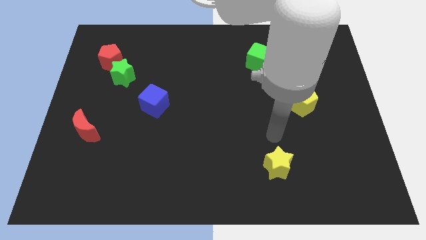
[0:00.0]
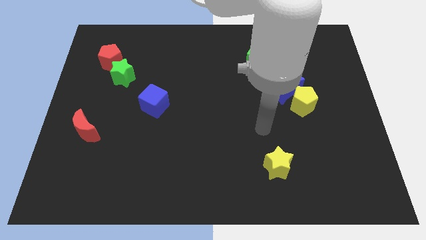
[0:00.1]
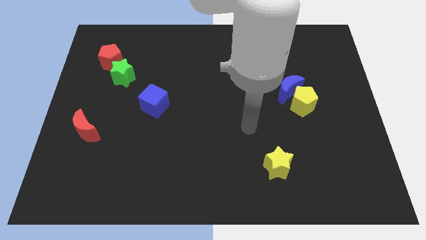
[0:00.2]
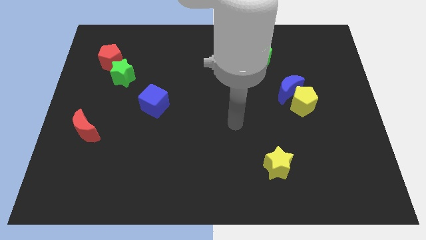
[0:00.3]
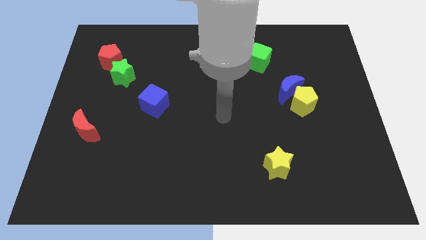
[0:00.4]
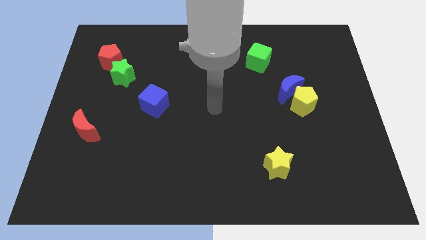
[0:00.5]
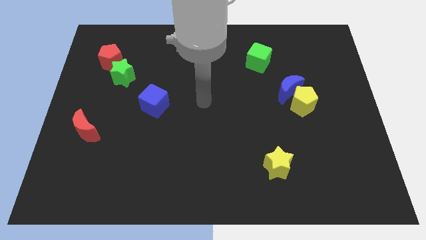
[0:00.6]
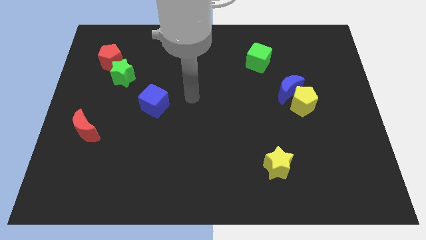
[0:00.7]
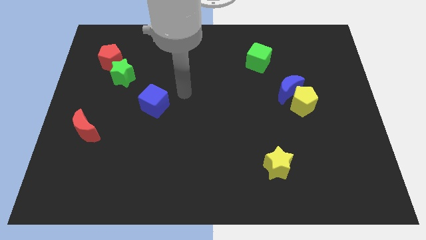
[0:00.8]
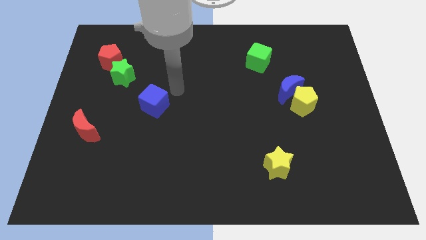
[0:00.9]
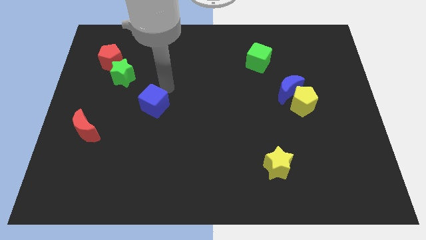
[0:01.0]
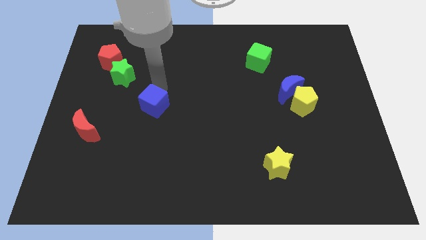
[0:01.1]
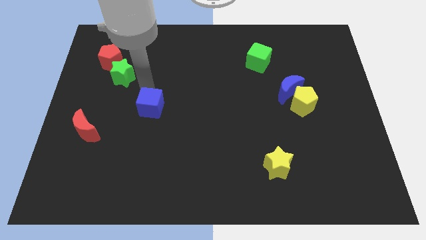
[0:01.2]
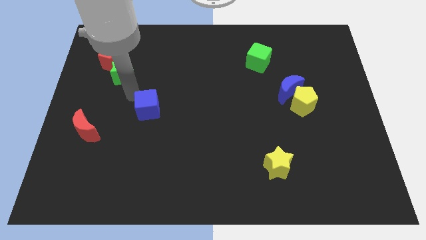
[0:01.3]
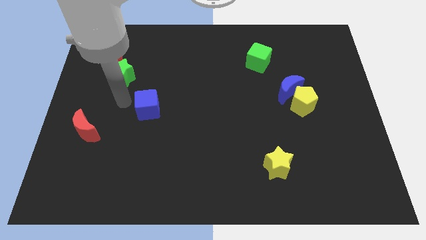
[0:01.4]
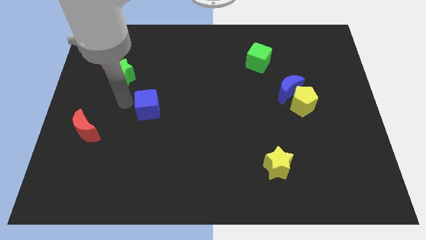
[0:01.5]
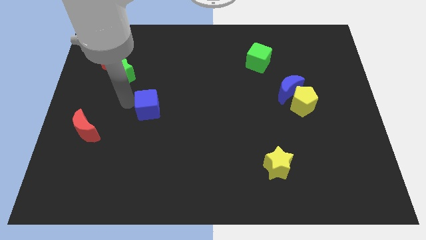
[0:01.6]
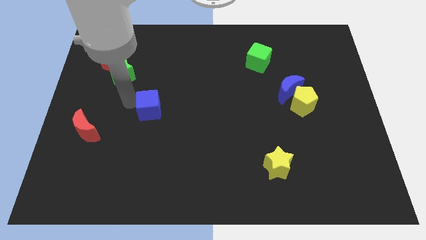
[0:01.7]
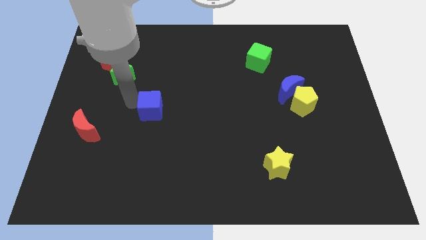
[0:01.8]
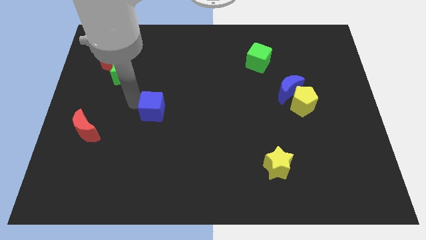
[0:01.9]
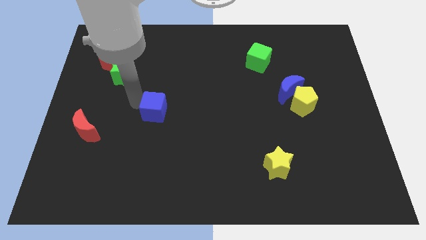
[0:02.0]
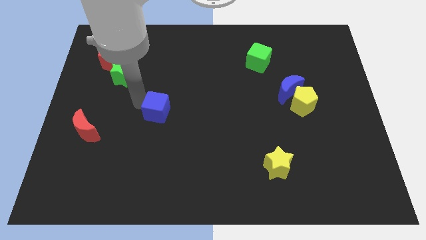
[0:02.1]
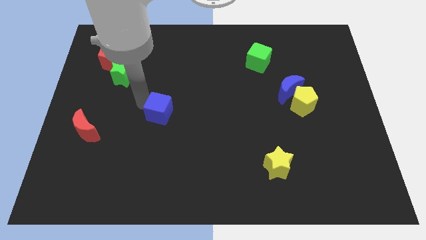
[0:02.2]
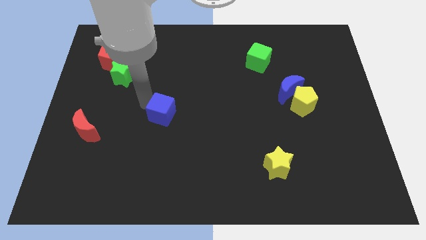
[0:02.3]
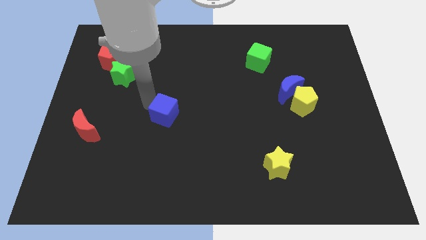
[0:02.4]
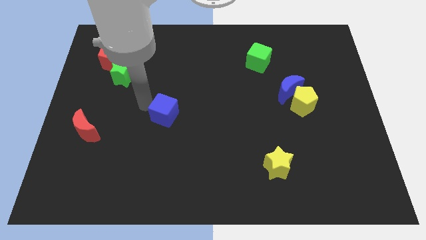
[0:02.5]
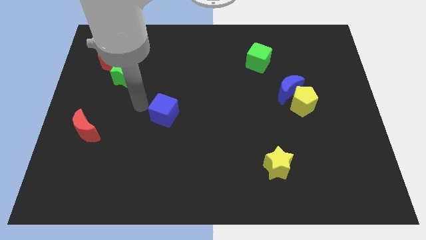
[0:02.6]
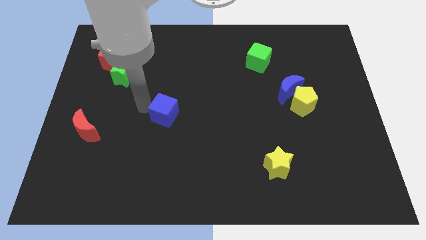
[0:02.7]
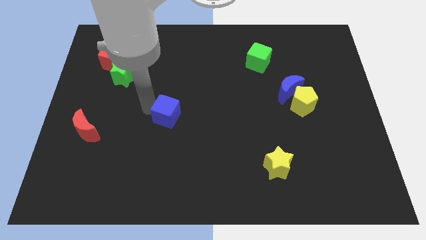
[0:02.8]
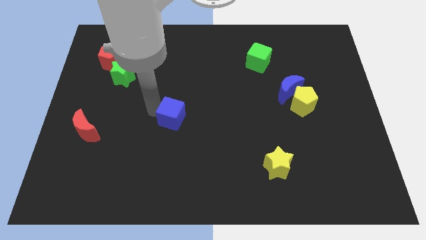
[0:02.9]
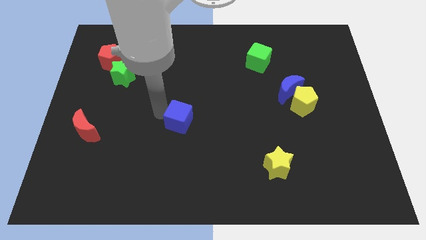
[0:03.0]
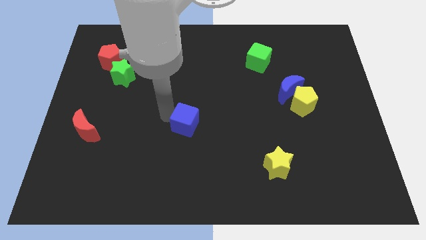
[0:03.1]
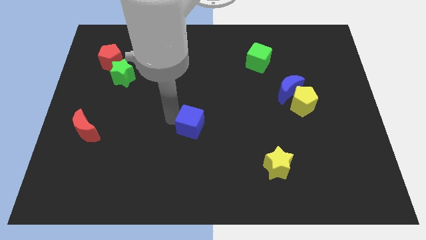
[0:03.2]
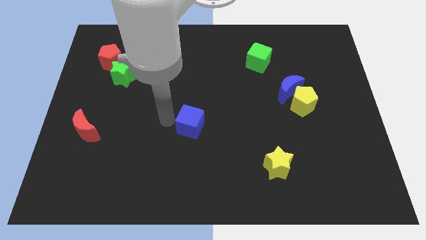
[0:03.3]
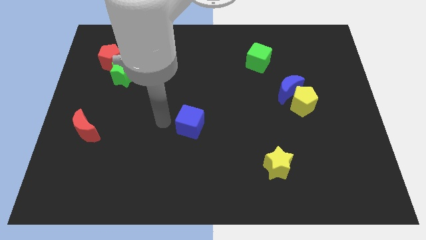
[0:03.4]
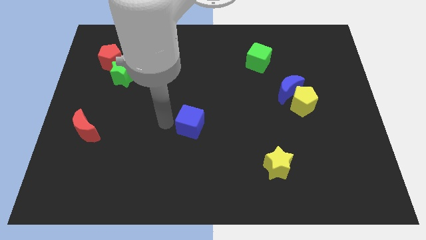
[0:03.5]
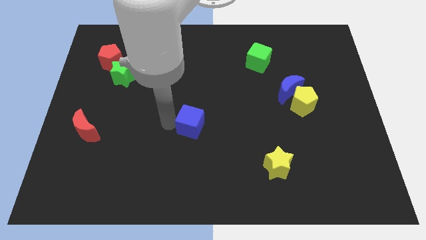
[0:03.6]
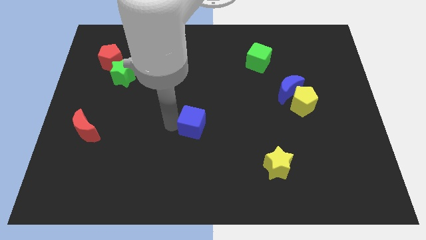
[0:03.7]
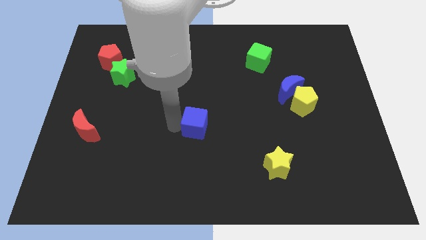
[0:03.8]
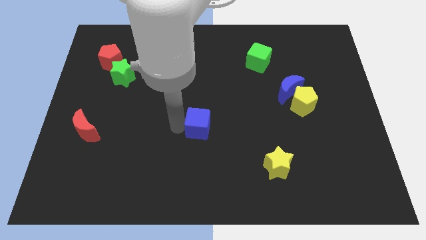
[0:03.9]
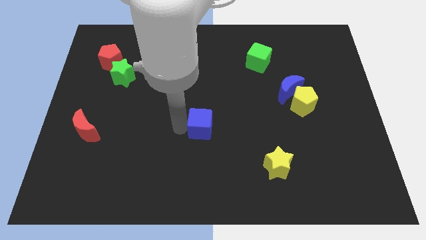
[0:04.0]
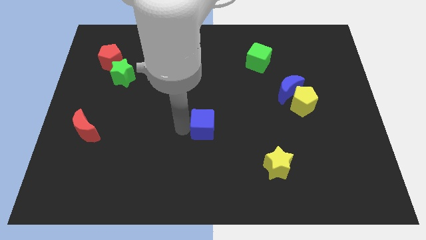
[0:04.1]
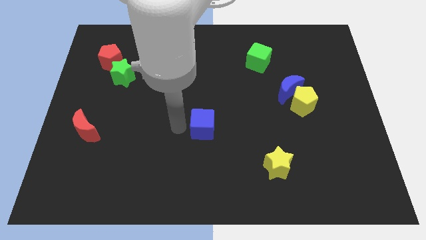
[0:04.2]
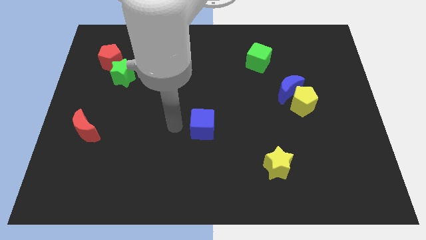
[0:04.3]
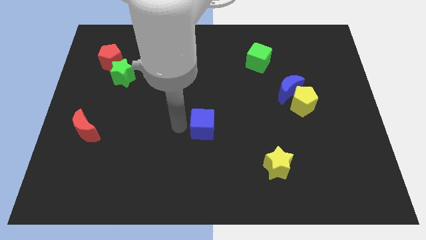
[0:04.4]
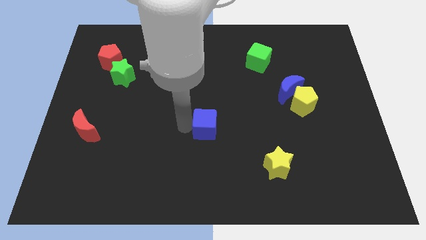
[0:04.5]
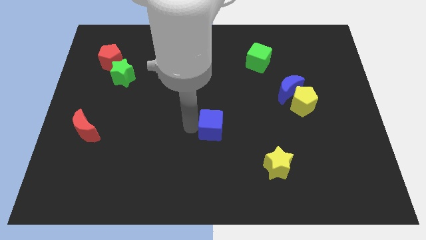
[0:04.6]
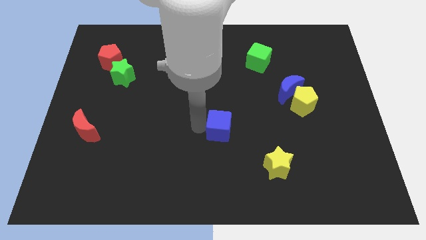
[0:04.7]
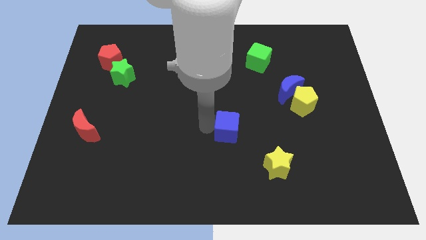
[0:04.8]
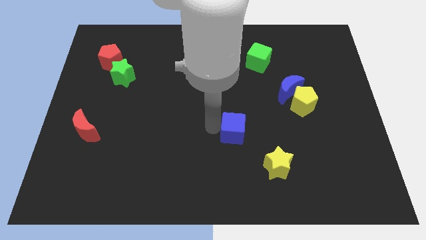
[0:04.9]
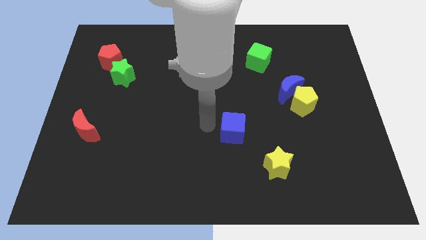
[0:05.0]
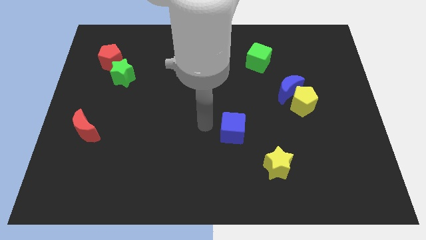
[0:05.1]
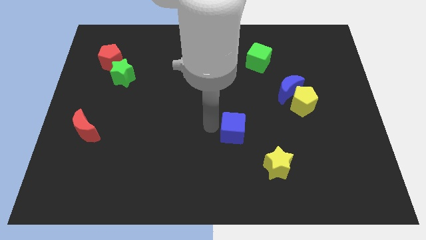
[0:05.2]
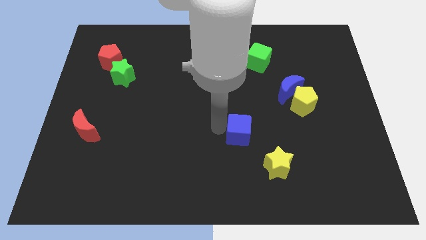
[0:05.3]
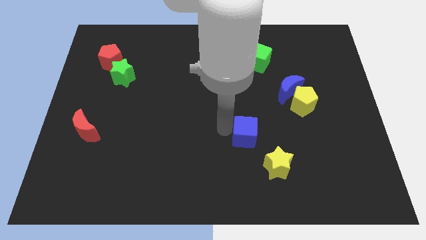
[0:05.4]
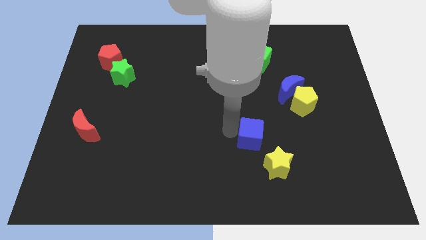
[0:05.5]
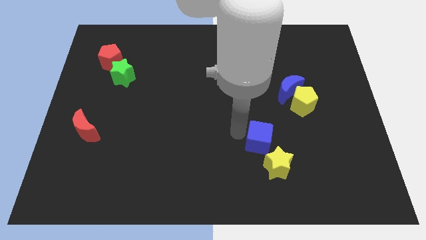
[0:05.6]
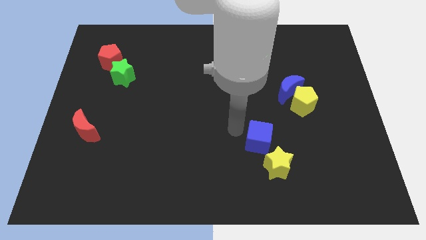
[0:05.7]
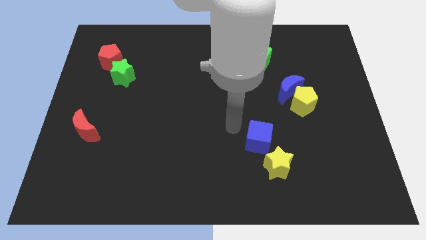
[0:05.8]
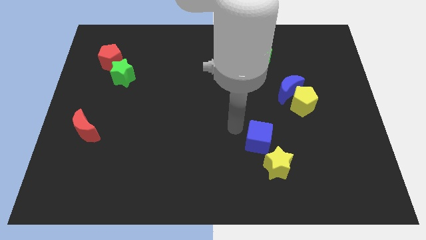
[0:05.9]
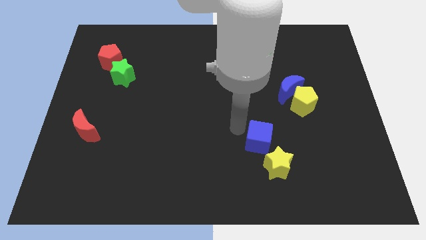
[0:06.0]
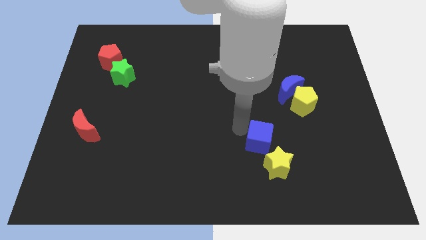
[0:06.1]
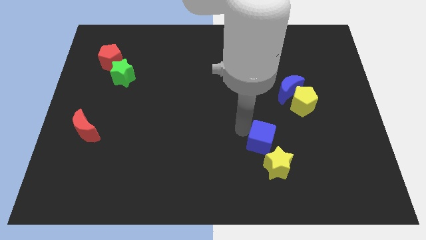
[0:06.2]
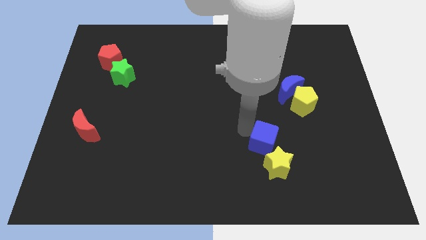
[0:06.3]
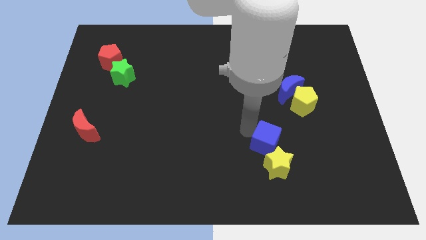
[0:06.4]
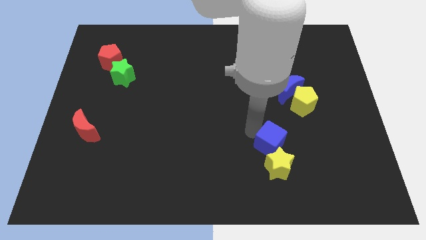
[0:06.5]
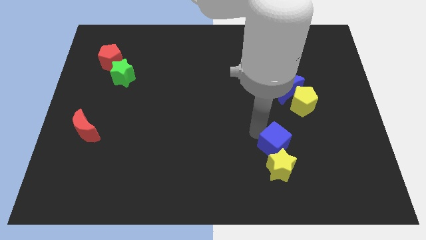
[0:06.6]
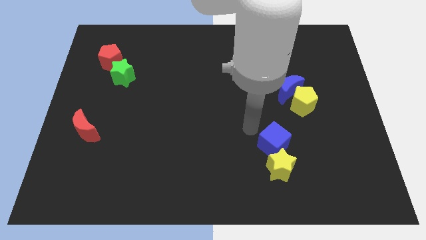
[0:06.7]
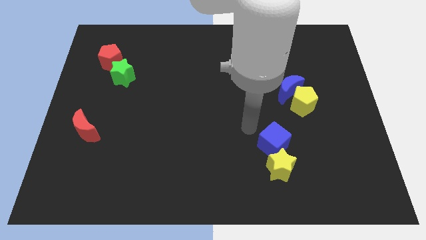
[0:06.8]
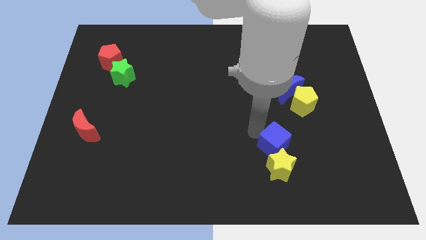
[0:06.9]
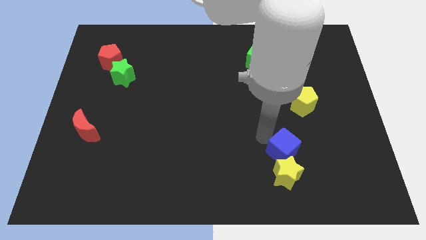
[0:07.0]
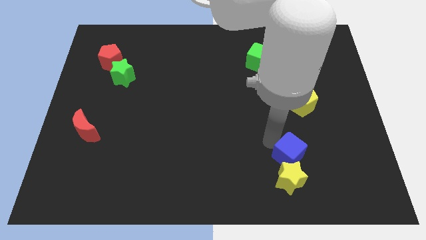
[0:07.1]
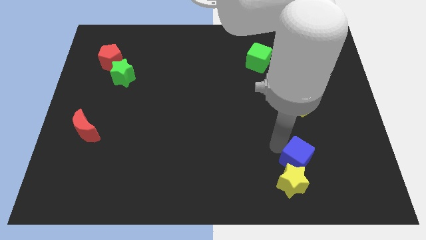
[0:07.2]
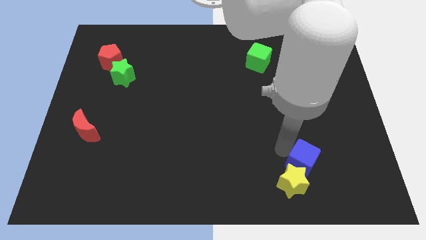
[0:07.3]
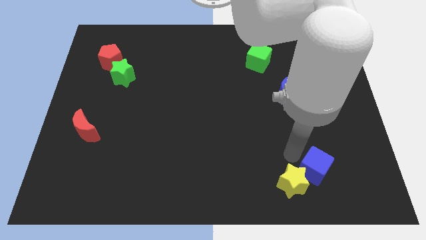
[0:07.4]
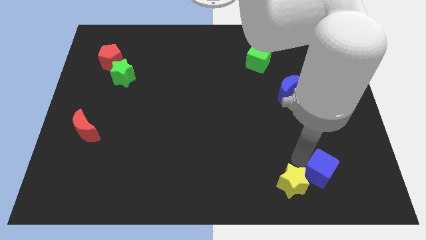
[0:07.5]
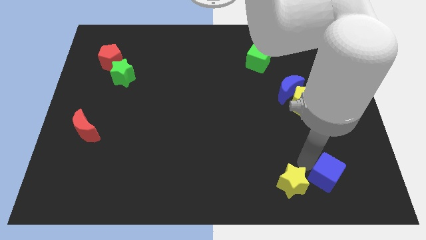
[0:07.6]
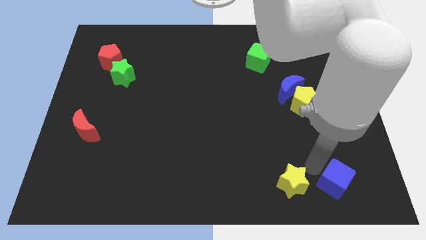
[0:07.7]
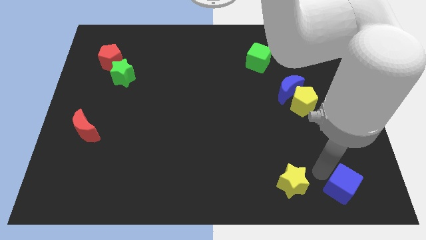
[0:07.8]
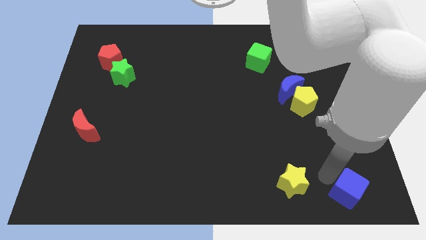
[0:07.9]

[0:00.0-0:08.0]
push the blue cube to the bottom right
